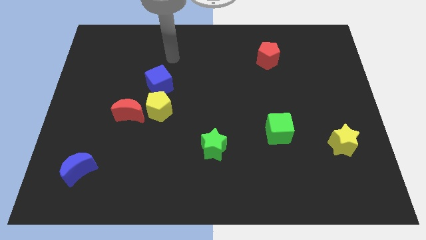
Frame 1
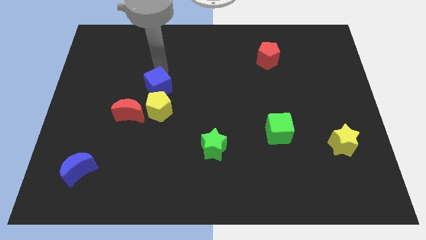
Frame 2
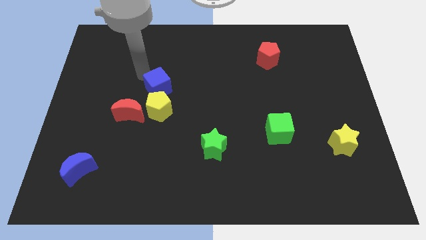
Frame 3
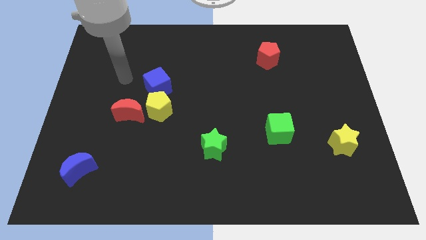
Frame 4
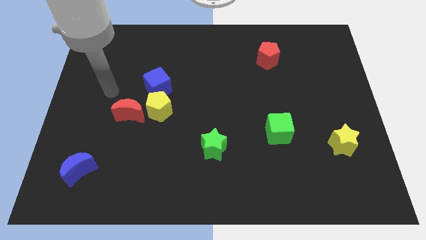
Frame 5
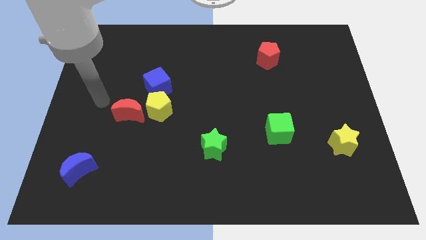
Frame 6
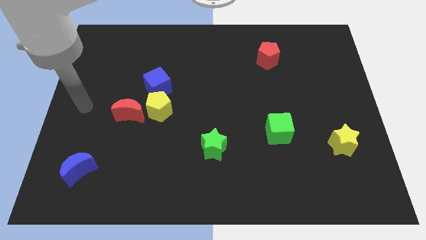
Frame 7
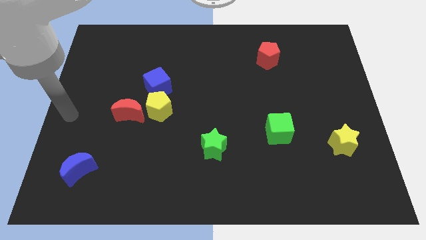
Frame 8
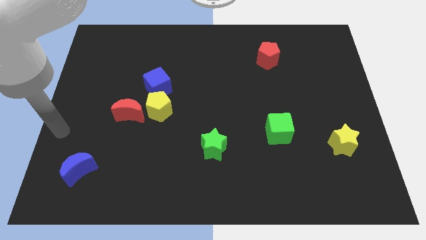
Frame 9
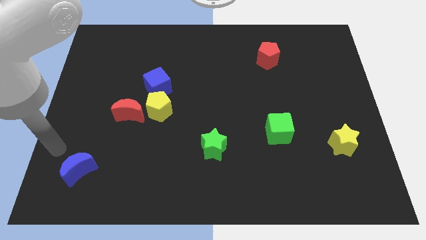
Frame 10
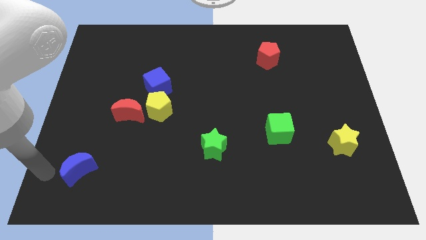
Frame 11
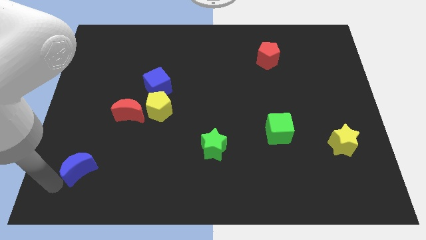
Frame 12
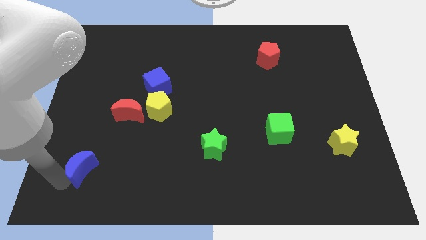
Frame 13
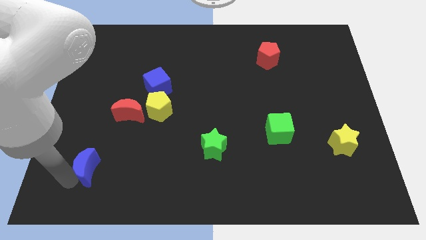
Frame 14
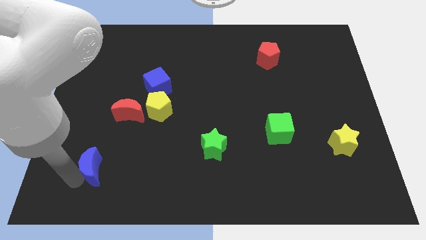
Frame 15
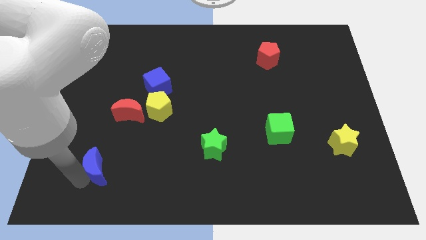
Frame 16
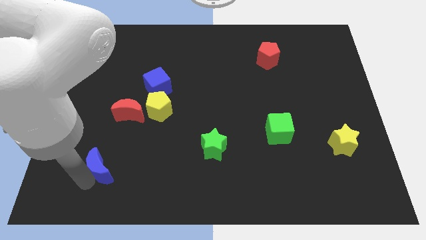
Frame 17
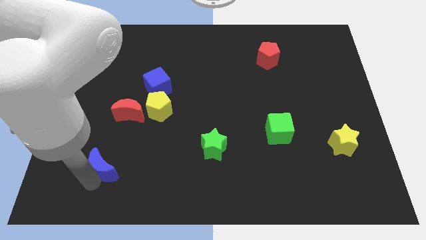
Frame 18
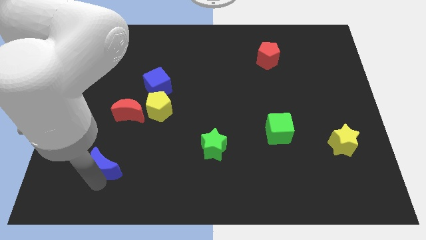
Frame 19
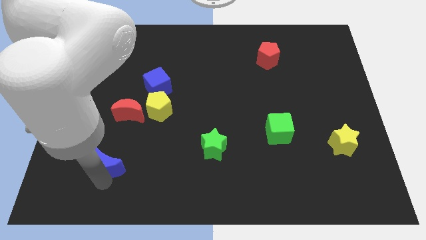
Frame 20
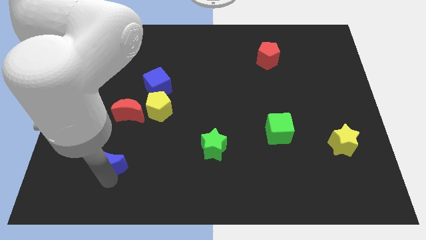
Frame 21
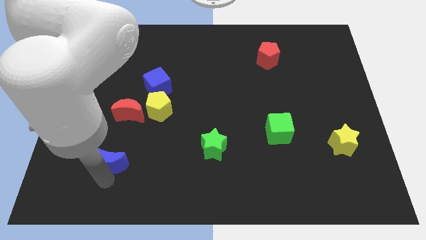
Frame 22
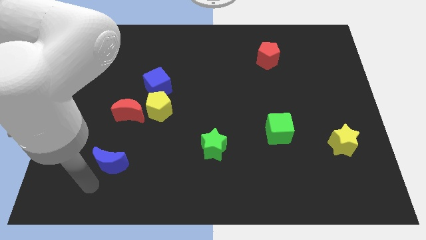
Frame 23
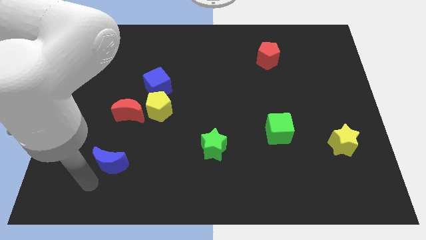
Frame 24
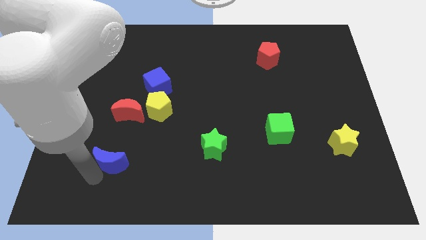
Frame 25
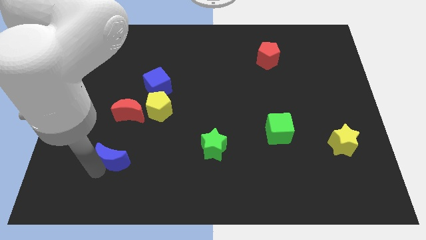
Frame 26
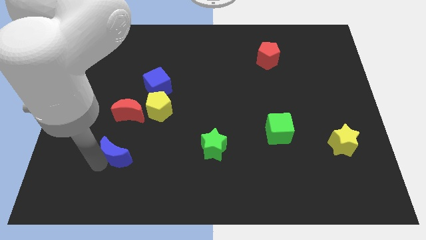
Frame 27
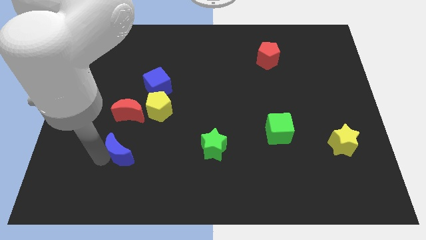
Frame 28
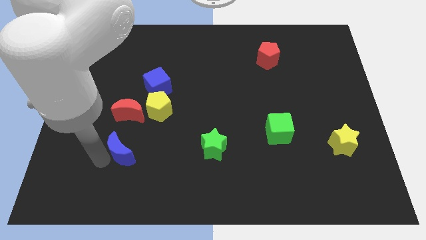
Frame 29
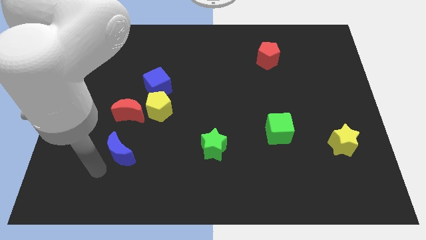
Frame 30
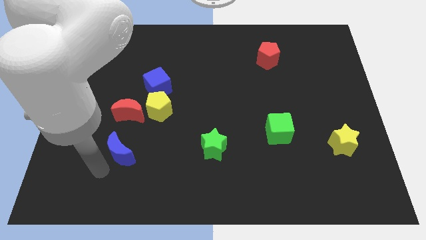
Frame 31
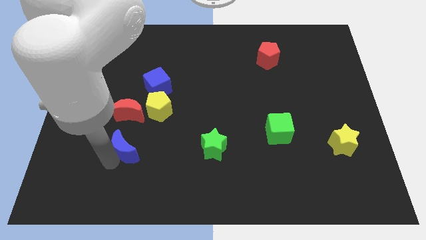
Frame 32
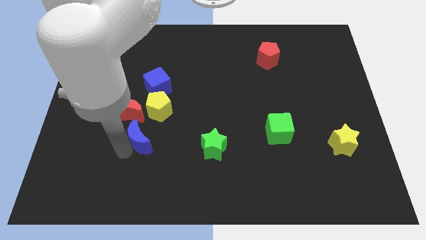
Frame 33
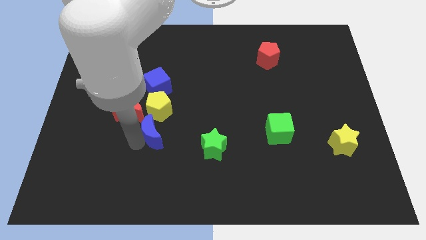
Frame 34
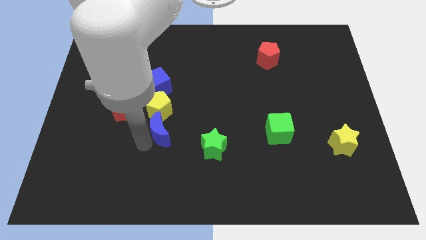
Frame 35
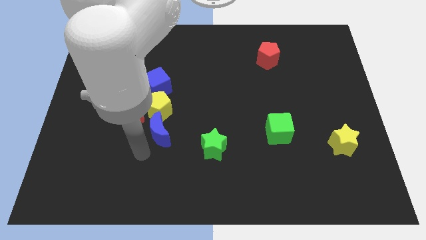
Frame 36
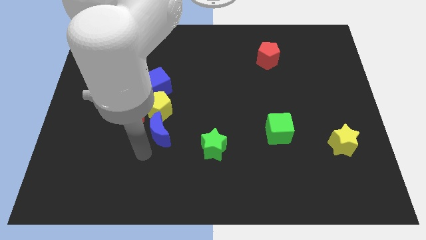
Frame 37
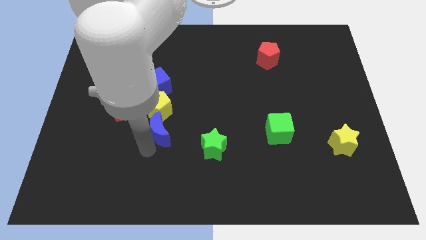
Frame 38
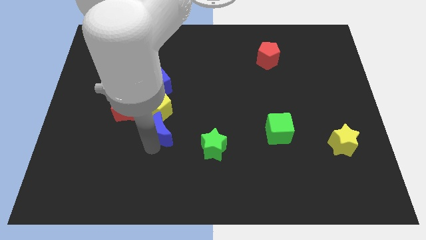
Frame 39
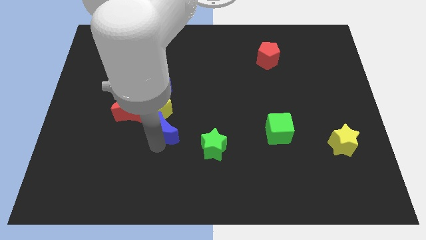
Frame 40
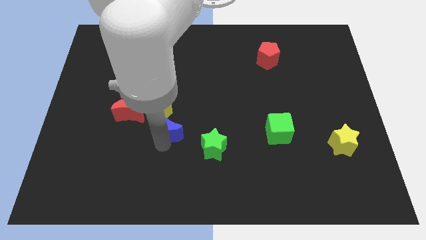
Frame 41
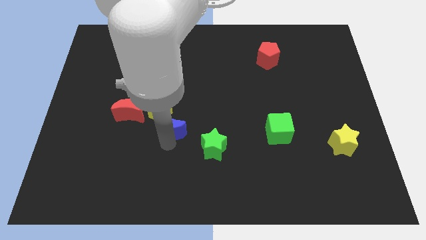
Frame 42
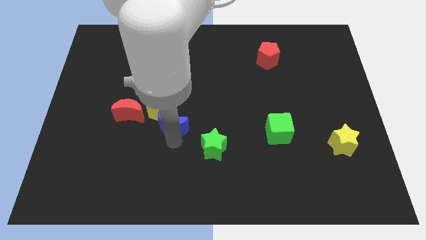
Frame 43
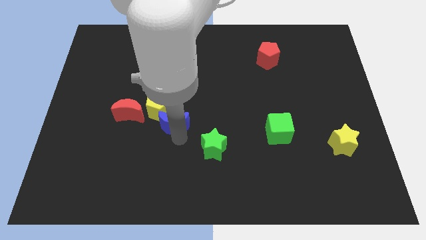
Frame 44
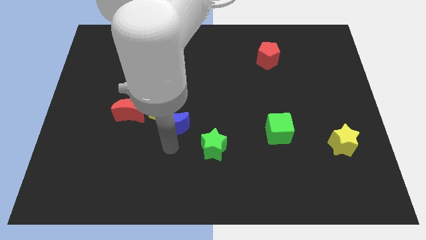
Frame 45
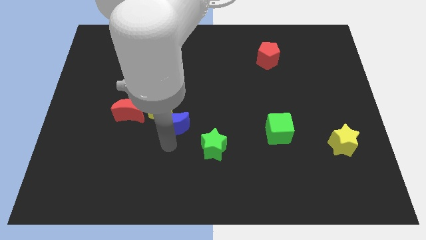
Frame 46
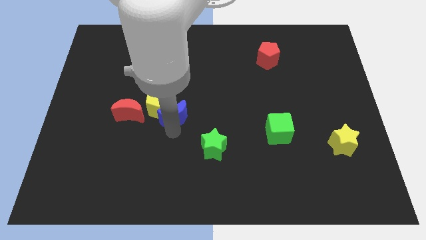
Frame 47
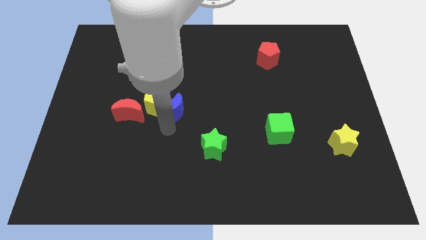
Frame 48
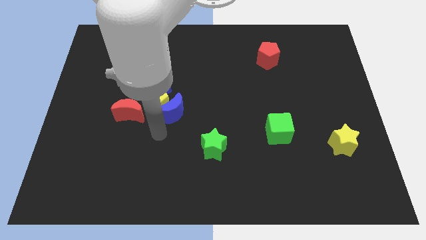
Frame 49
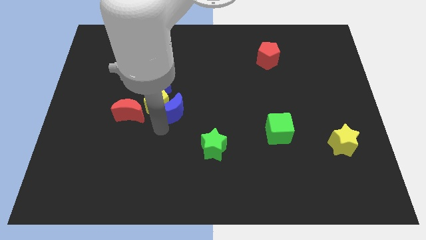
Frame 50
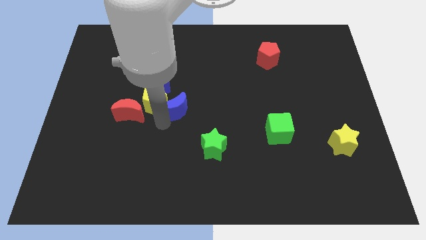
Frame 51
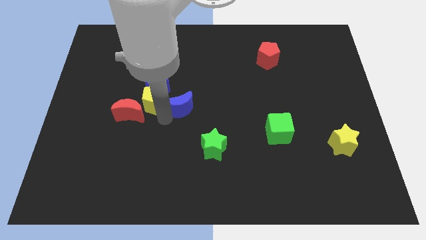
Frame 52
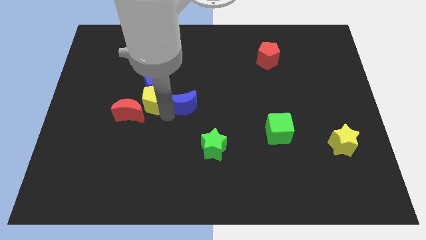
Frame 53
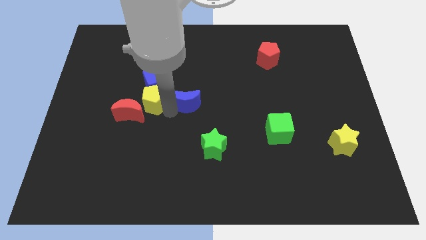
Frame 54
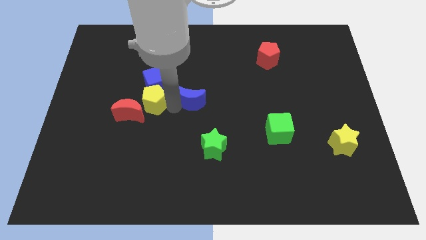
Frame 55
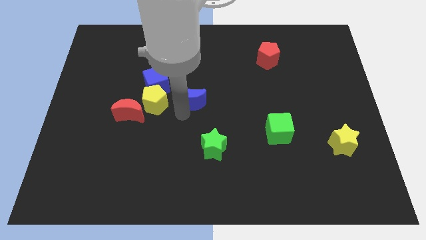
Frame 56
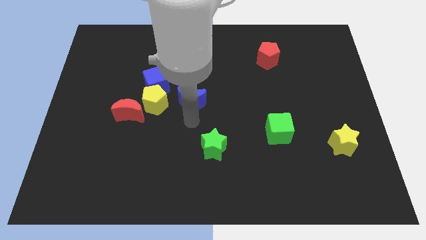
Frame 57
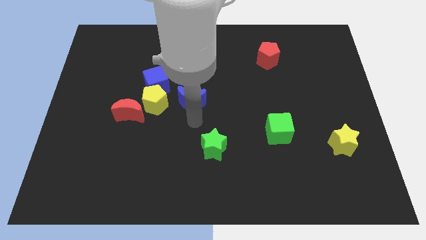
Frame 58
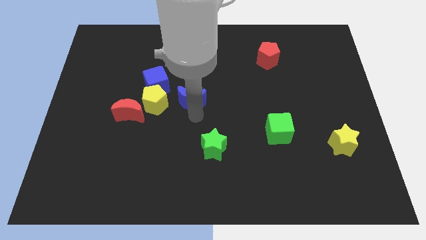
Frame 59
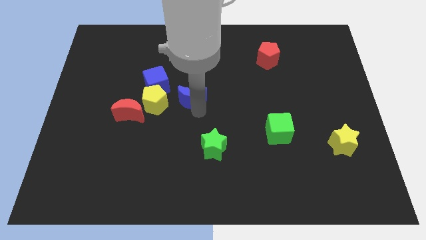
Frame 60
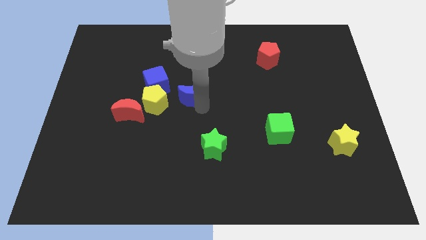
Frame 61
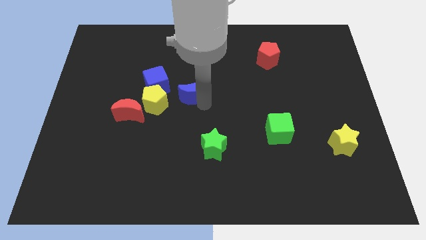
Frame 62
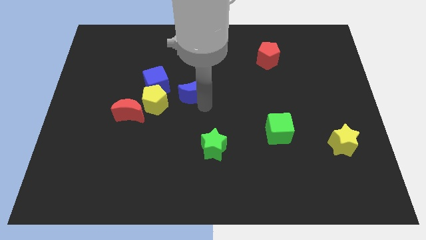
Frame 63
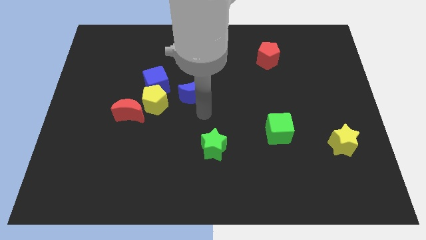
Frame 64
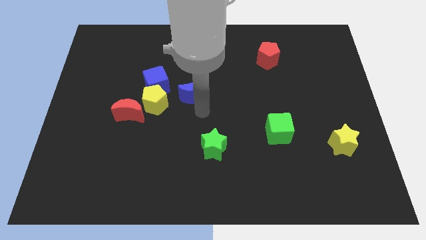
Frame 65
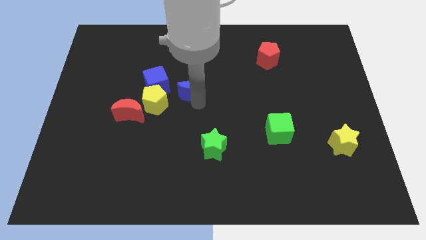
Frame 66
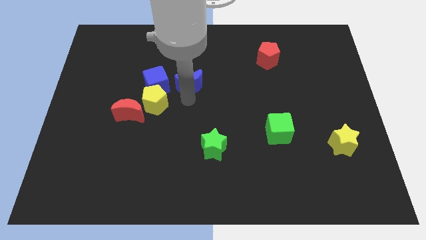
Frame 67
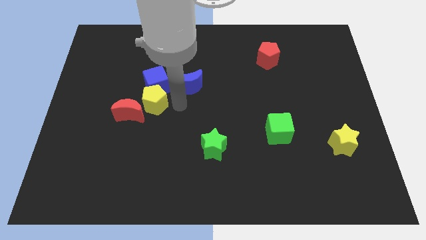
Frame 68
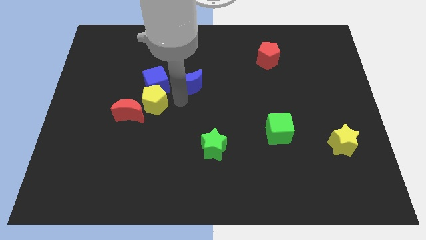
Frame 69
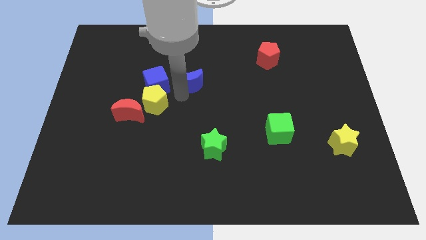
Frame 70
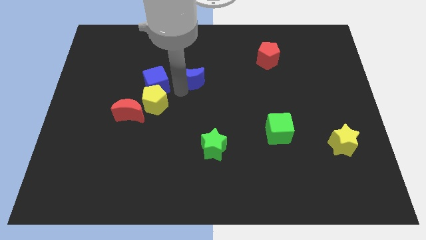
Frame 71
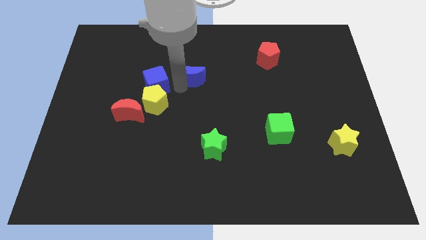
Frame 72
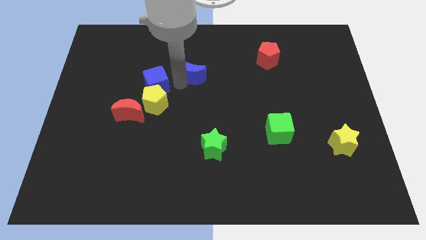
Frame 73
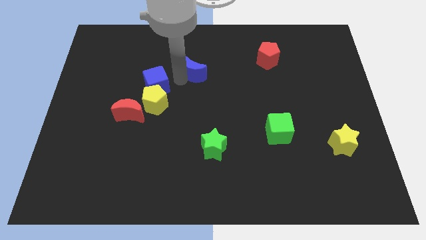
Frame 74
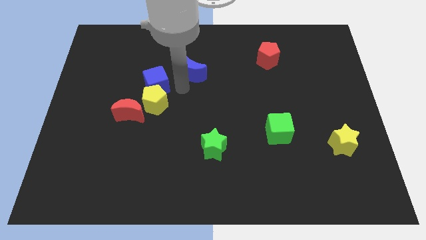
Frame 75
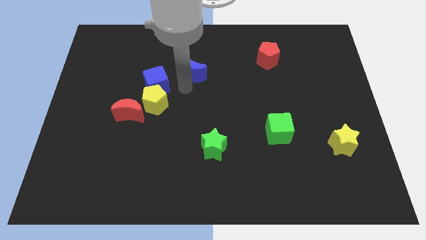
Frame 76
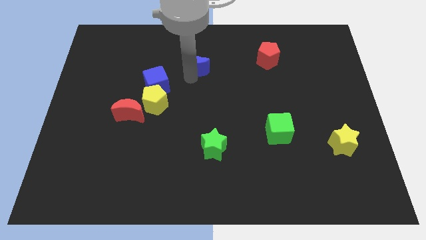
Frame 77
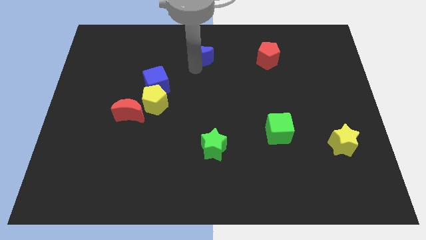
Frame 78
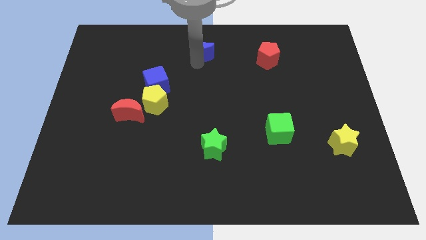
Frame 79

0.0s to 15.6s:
move the blue moon to the top side
